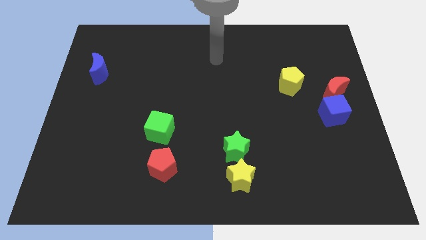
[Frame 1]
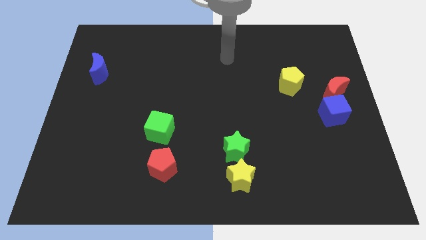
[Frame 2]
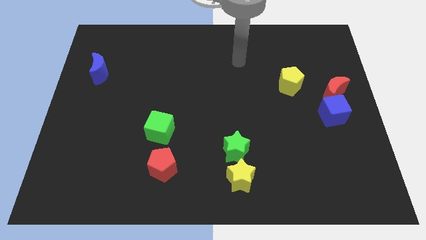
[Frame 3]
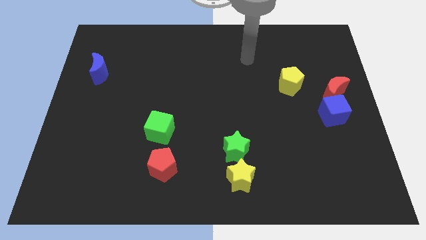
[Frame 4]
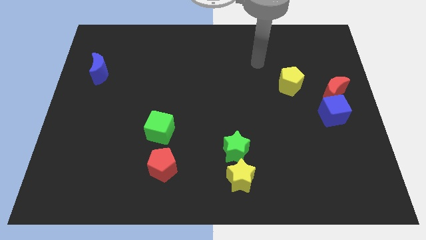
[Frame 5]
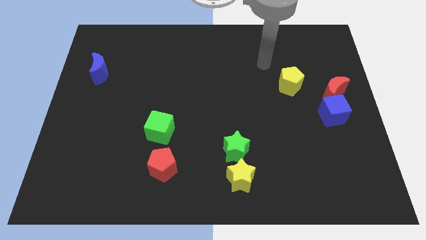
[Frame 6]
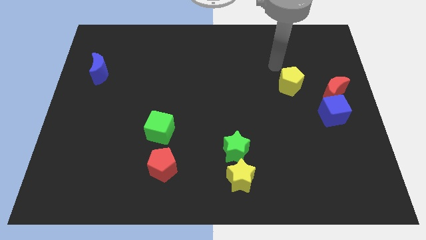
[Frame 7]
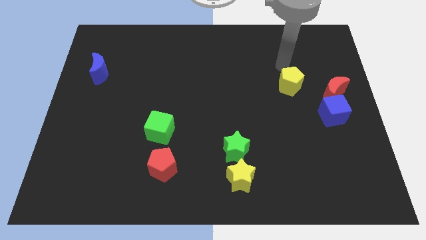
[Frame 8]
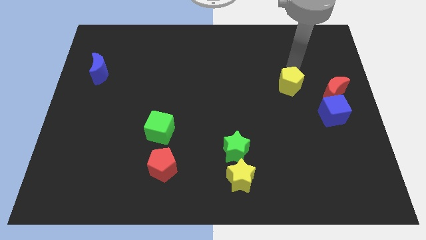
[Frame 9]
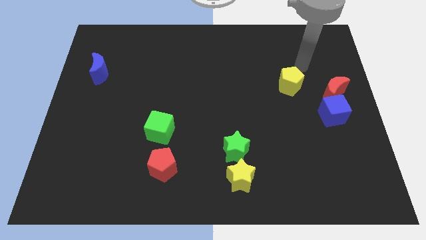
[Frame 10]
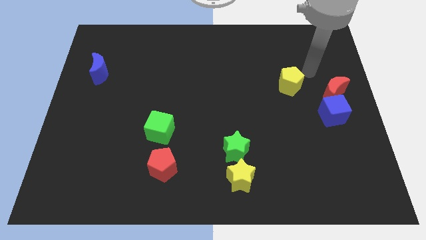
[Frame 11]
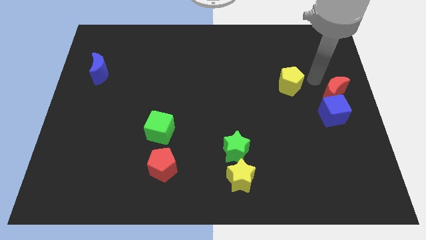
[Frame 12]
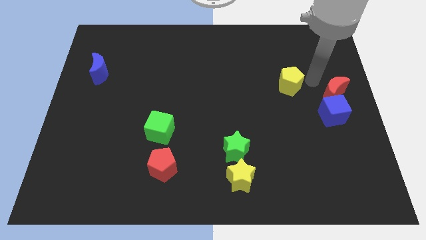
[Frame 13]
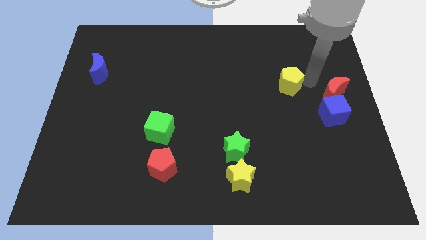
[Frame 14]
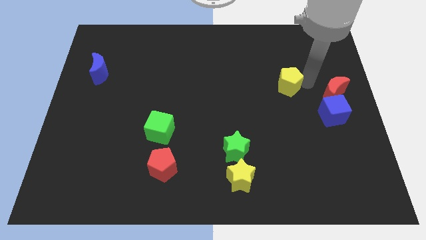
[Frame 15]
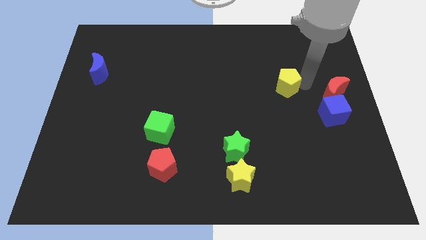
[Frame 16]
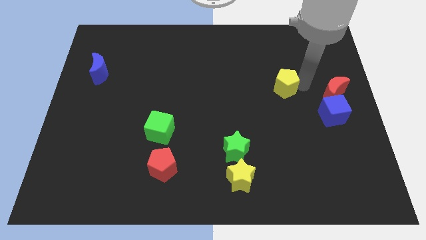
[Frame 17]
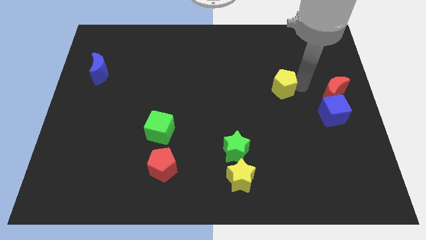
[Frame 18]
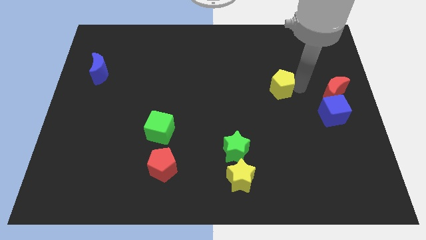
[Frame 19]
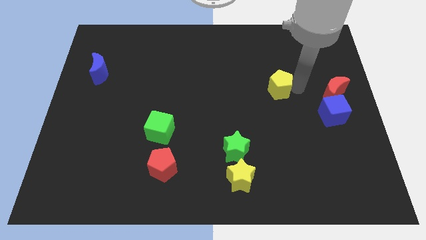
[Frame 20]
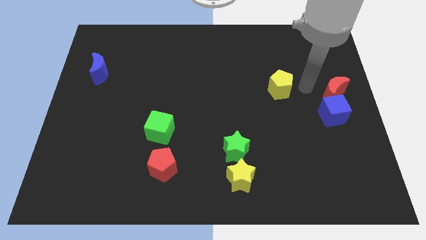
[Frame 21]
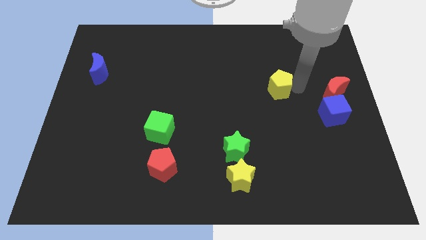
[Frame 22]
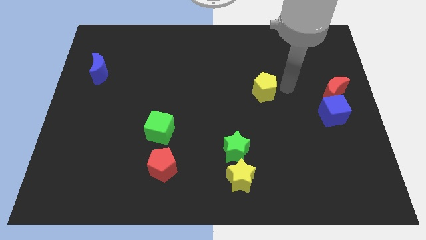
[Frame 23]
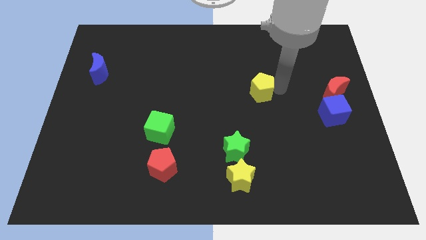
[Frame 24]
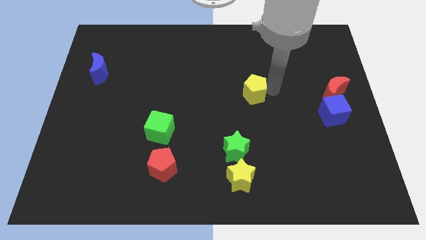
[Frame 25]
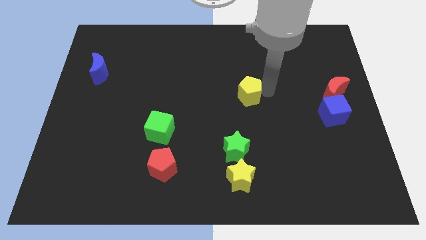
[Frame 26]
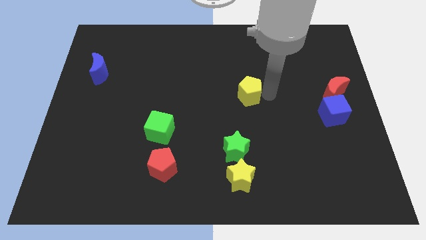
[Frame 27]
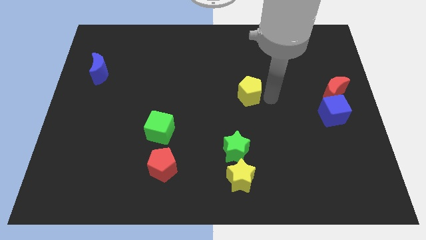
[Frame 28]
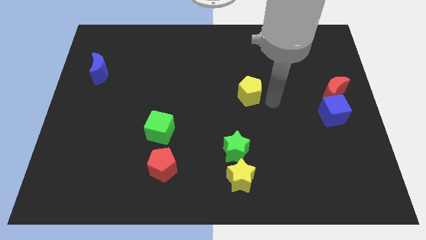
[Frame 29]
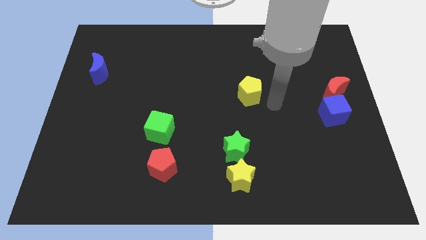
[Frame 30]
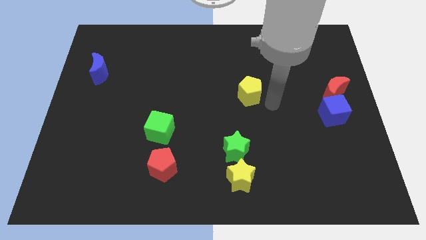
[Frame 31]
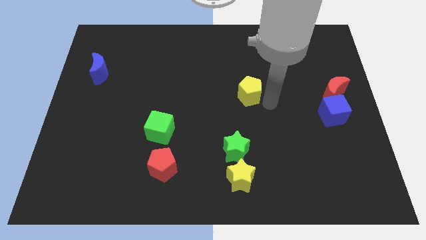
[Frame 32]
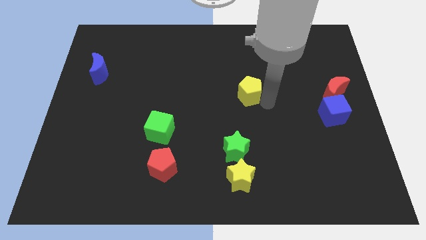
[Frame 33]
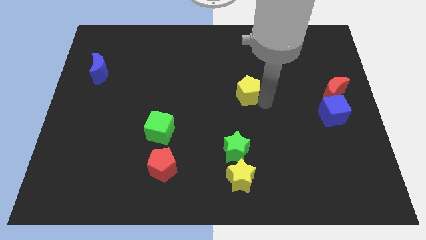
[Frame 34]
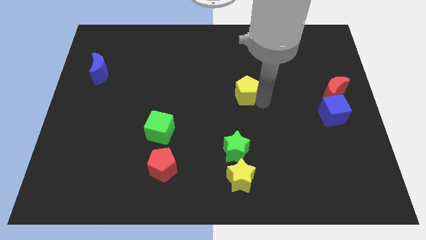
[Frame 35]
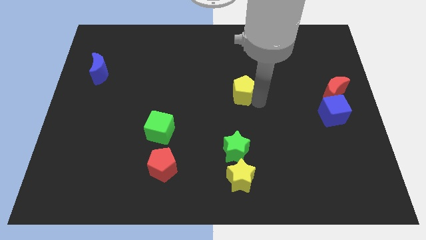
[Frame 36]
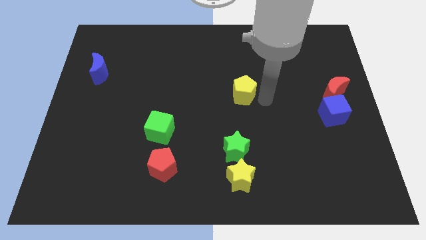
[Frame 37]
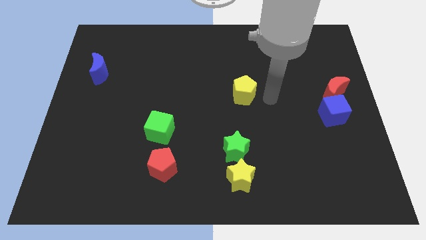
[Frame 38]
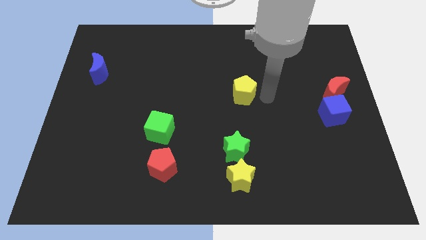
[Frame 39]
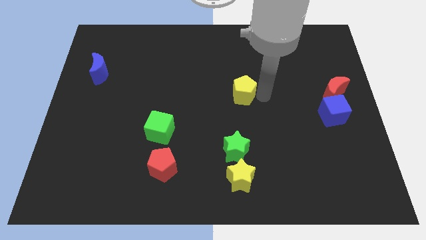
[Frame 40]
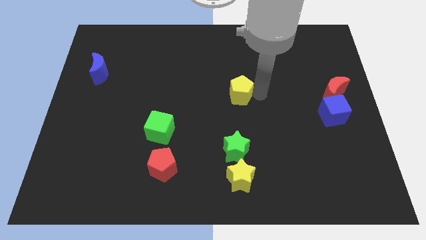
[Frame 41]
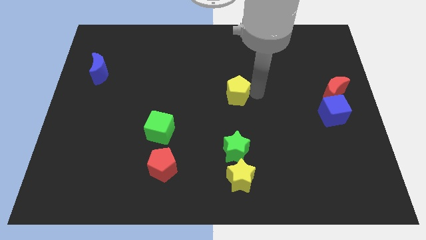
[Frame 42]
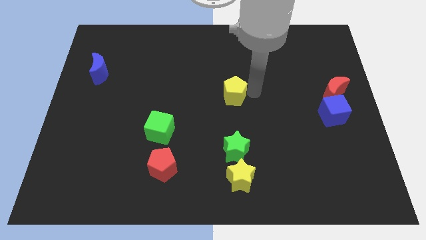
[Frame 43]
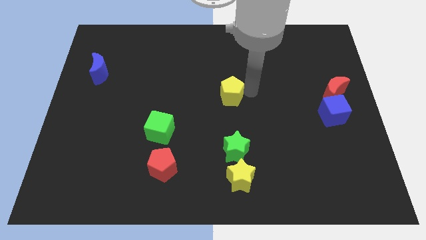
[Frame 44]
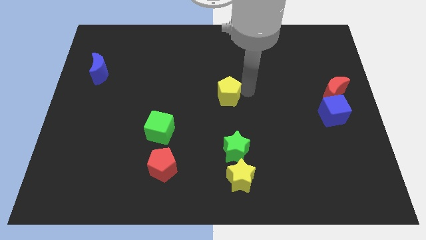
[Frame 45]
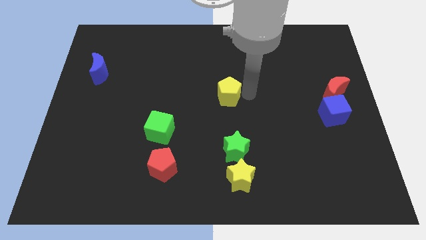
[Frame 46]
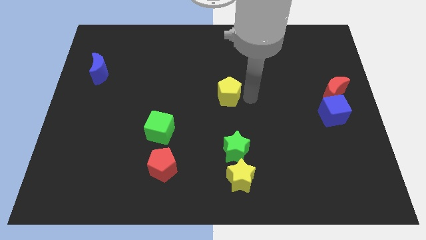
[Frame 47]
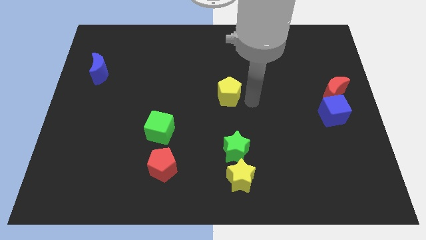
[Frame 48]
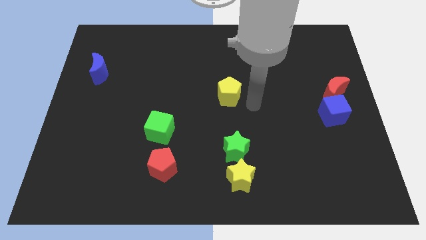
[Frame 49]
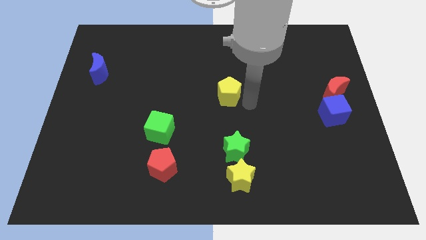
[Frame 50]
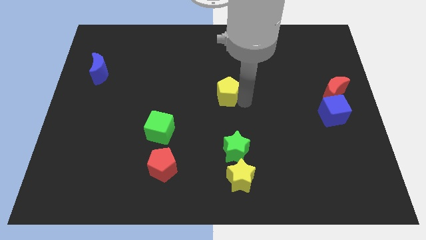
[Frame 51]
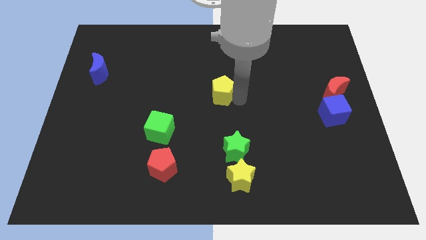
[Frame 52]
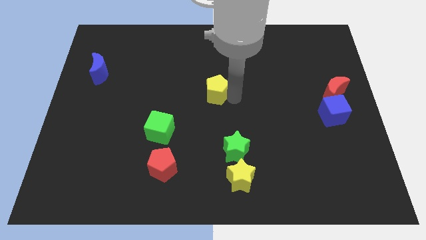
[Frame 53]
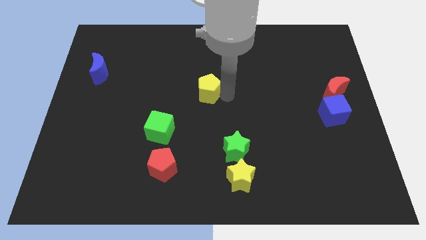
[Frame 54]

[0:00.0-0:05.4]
slide the yellow pentagon left

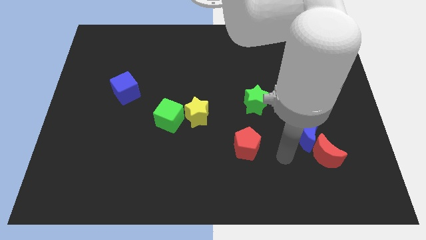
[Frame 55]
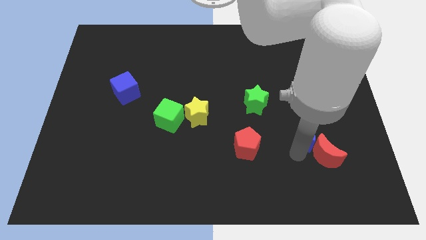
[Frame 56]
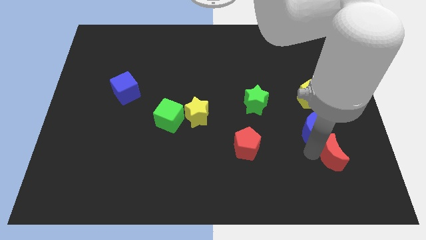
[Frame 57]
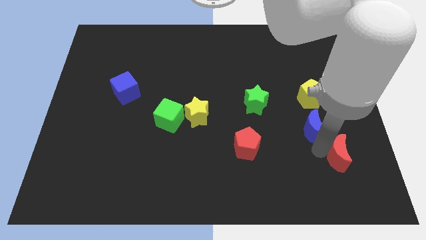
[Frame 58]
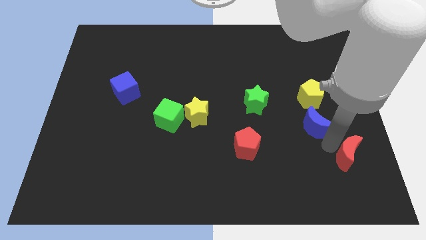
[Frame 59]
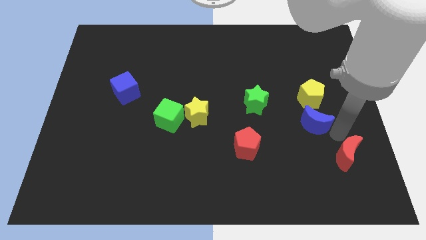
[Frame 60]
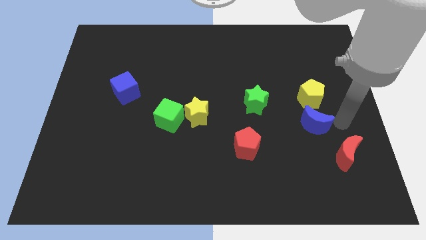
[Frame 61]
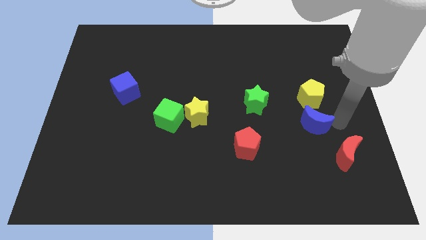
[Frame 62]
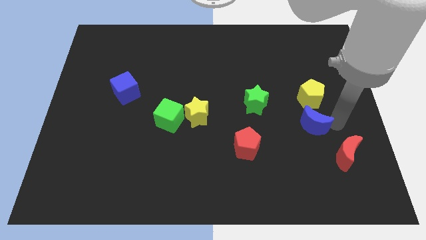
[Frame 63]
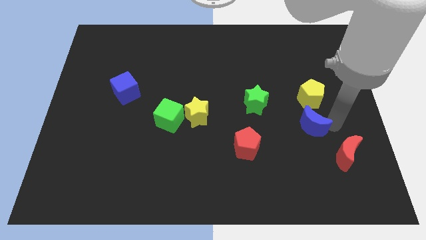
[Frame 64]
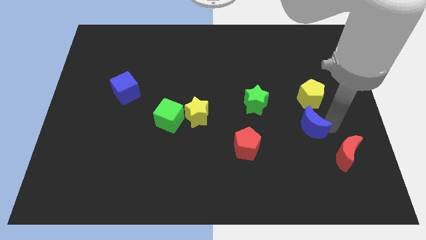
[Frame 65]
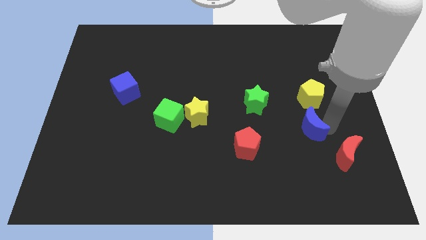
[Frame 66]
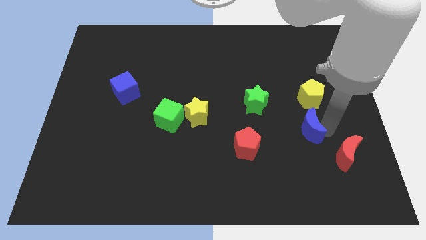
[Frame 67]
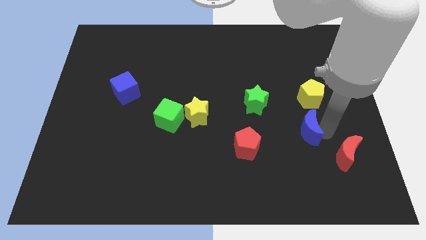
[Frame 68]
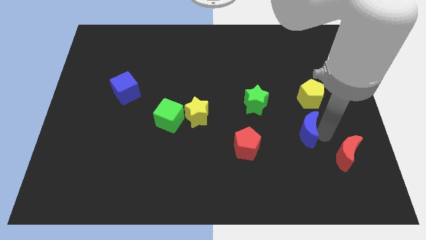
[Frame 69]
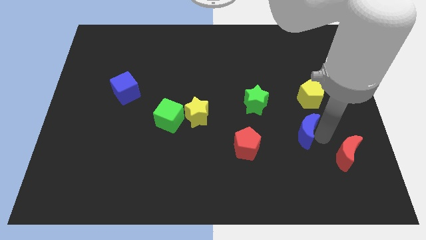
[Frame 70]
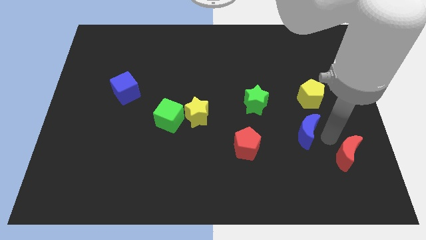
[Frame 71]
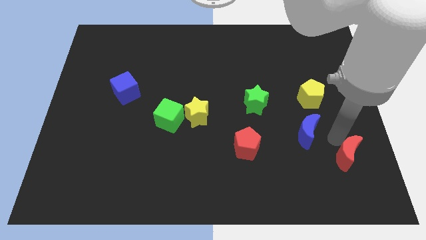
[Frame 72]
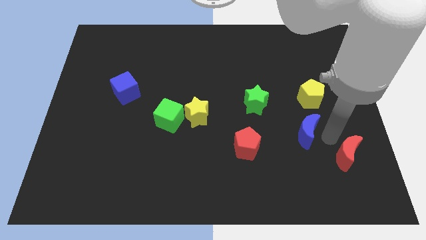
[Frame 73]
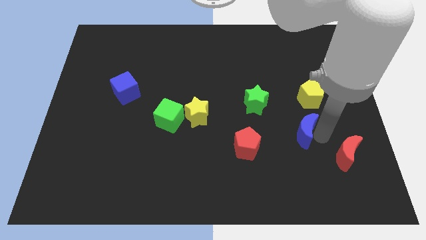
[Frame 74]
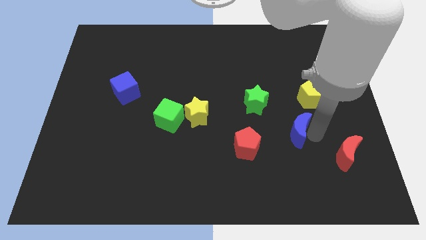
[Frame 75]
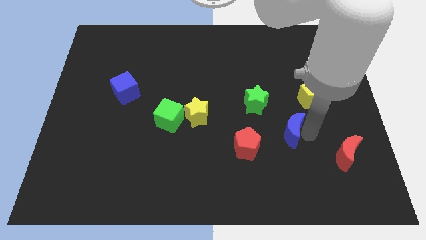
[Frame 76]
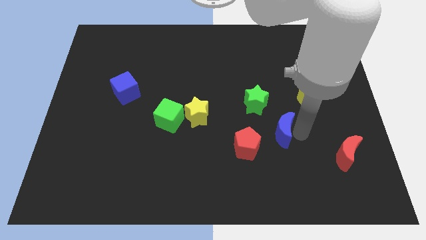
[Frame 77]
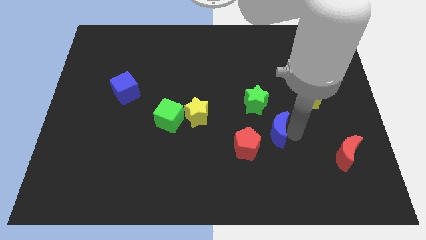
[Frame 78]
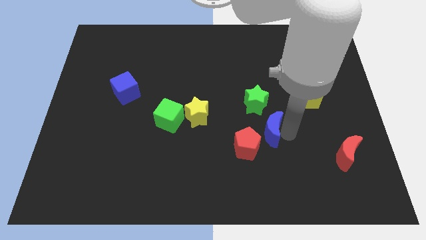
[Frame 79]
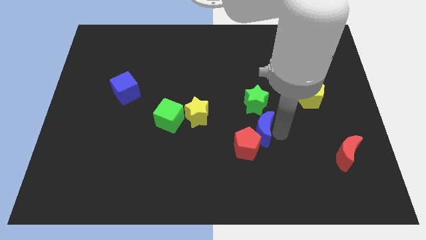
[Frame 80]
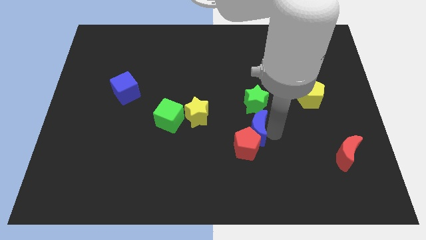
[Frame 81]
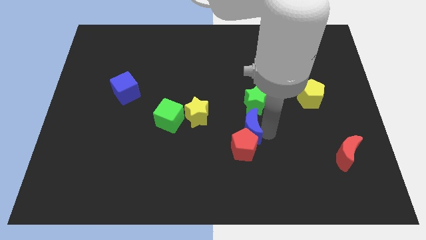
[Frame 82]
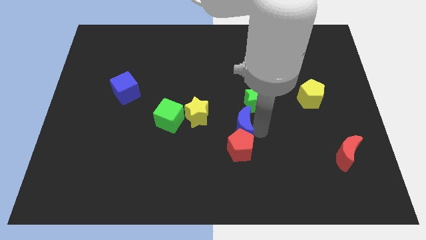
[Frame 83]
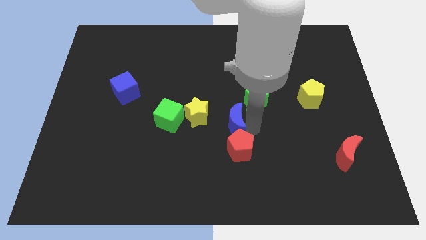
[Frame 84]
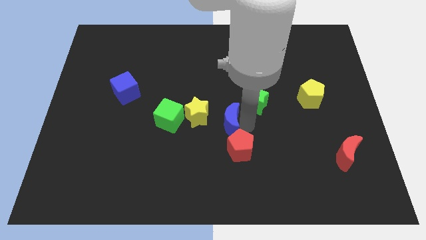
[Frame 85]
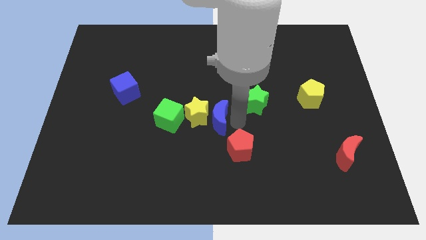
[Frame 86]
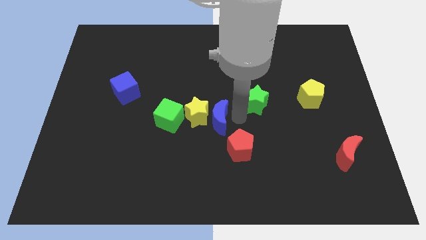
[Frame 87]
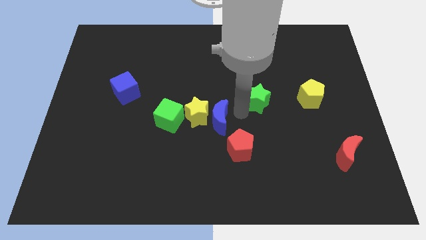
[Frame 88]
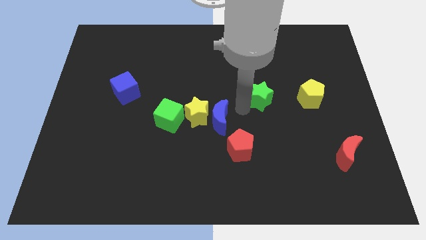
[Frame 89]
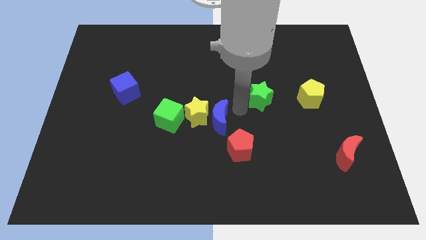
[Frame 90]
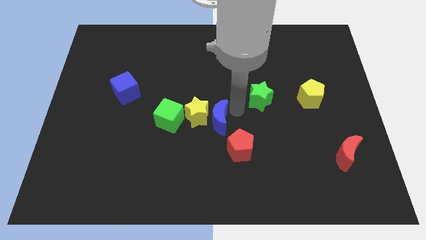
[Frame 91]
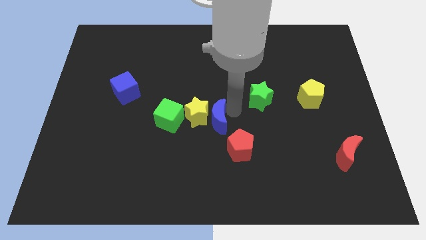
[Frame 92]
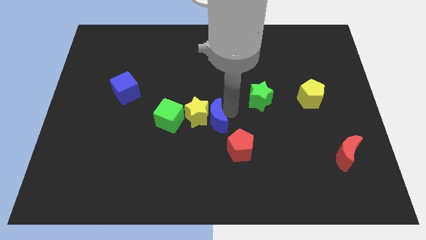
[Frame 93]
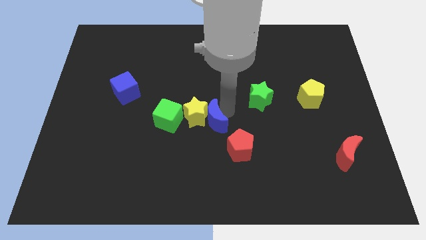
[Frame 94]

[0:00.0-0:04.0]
move the blue moon to the left
